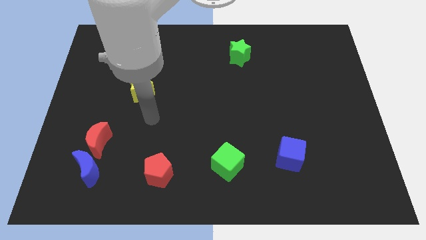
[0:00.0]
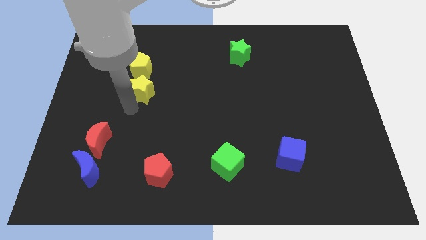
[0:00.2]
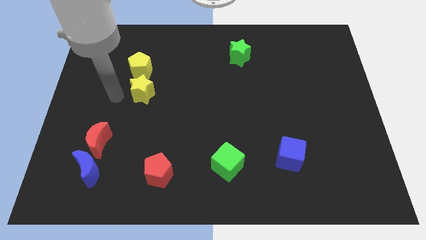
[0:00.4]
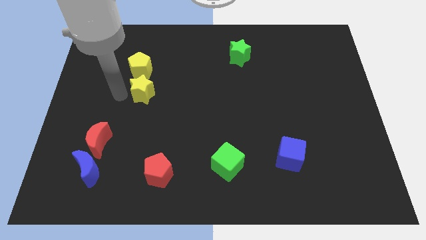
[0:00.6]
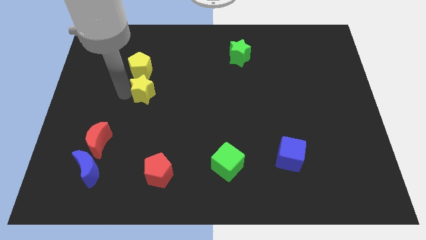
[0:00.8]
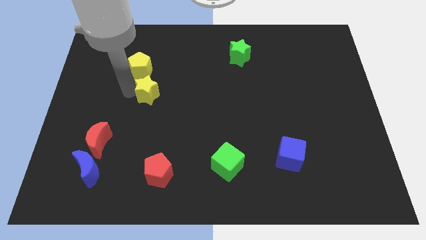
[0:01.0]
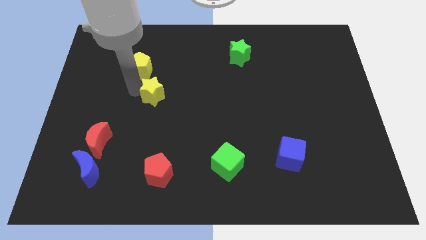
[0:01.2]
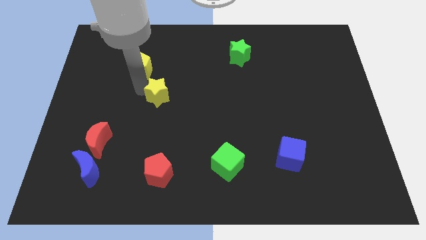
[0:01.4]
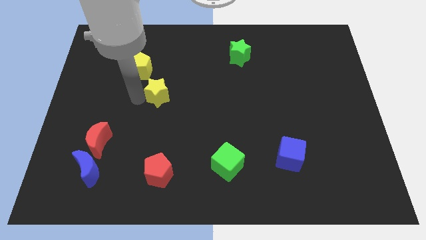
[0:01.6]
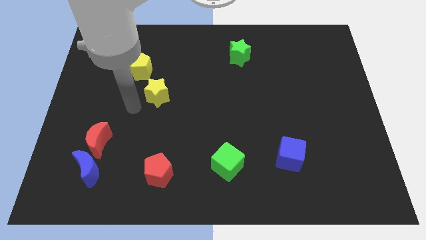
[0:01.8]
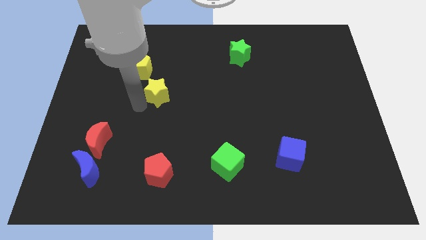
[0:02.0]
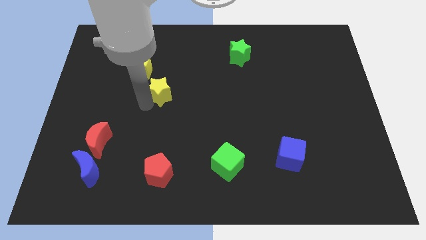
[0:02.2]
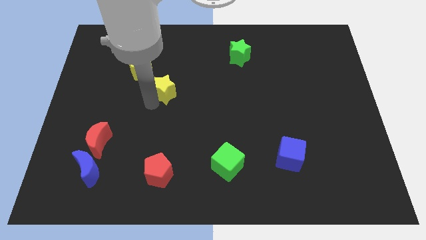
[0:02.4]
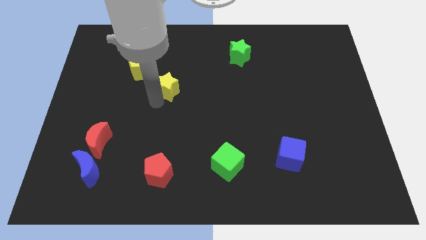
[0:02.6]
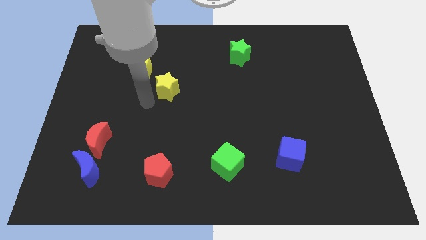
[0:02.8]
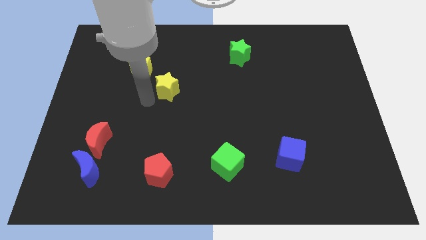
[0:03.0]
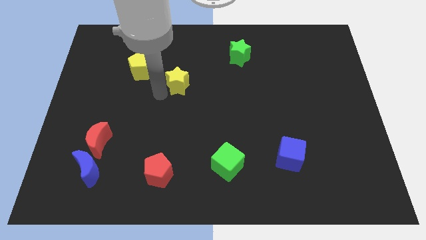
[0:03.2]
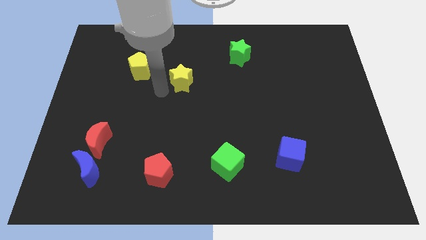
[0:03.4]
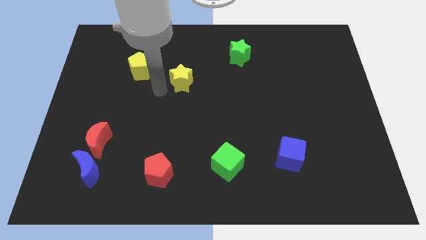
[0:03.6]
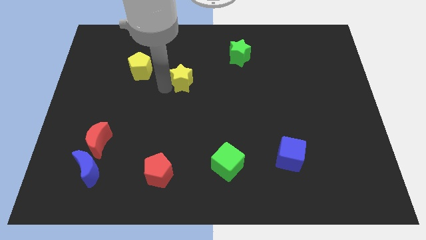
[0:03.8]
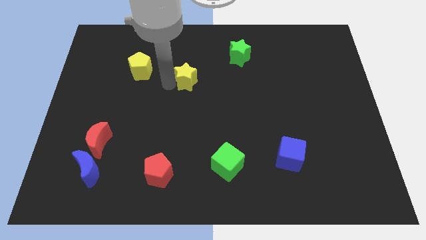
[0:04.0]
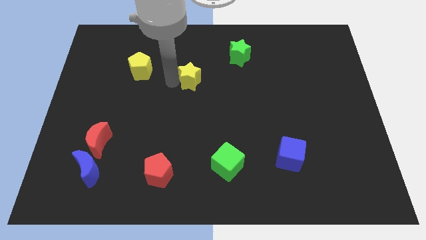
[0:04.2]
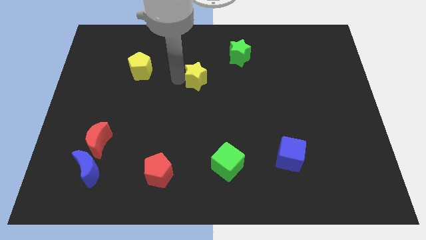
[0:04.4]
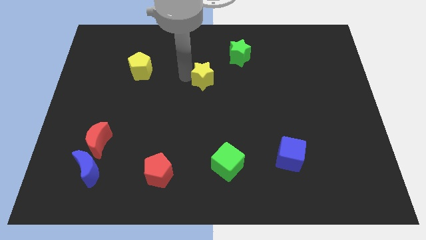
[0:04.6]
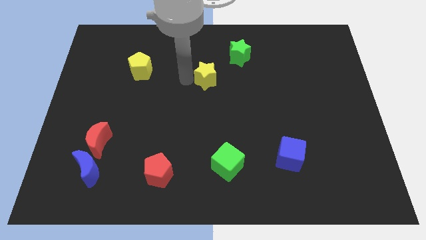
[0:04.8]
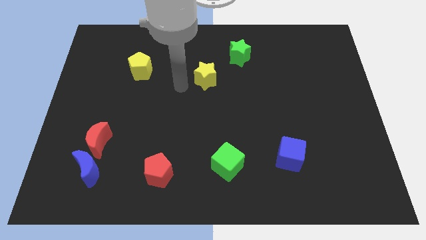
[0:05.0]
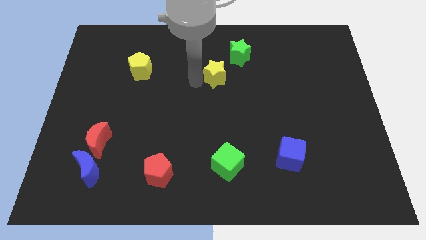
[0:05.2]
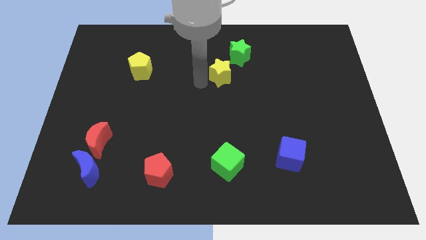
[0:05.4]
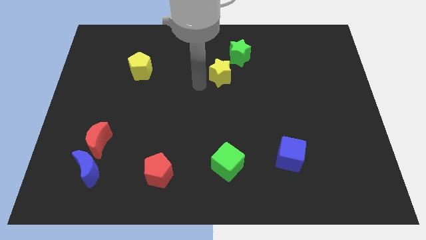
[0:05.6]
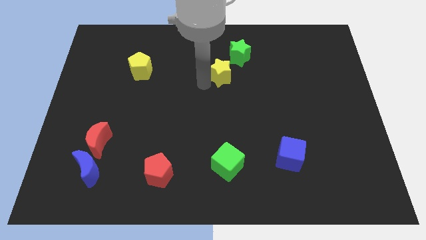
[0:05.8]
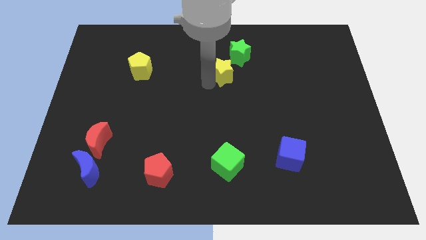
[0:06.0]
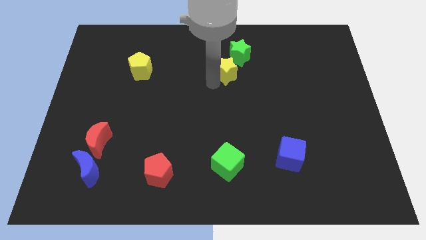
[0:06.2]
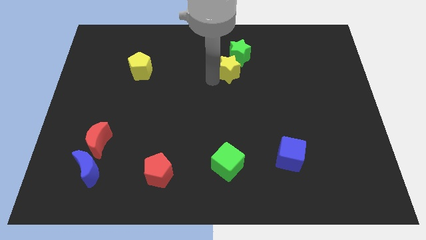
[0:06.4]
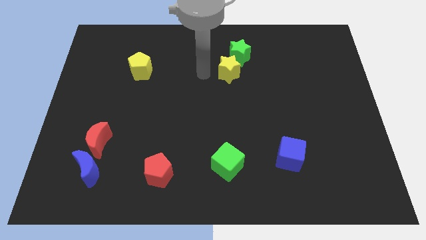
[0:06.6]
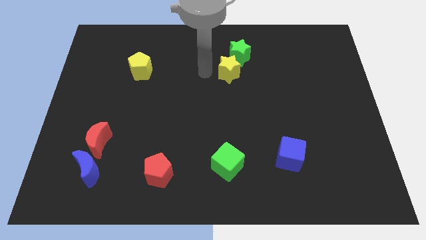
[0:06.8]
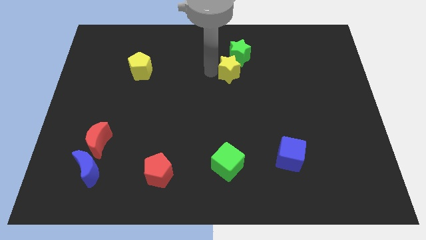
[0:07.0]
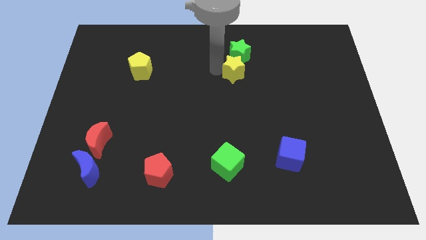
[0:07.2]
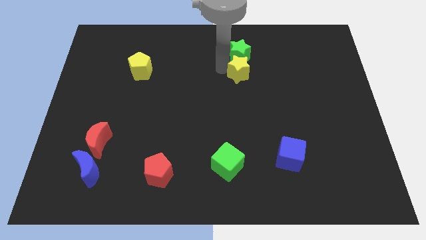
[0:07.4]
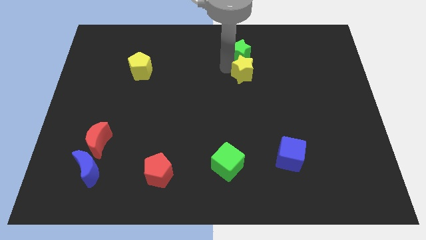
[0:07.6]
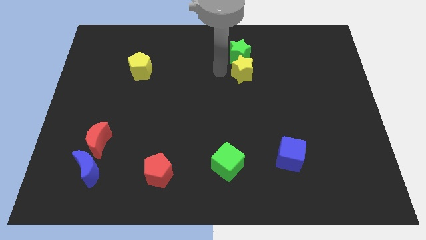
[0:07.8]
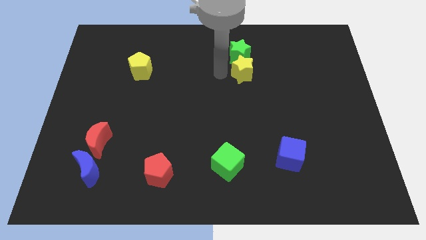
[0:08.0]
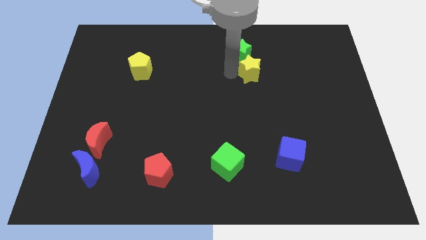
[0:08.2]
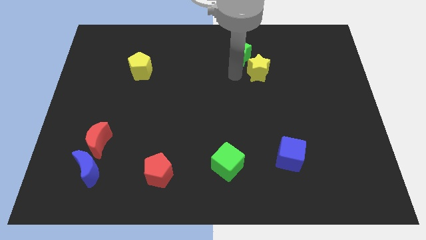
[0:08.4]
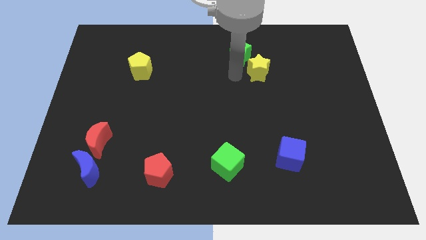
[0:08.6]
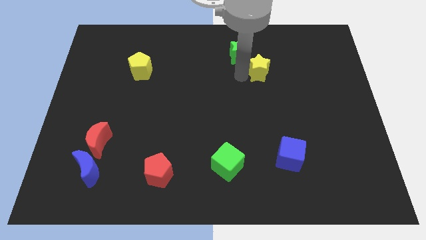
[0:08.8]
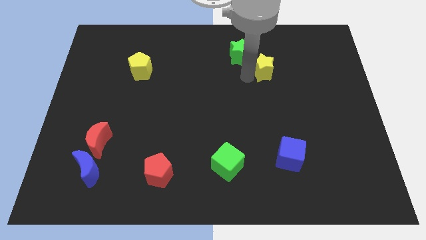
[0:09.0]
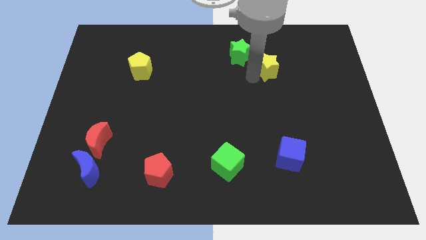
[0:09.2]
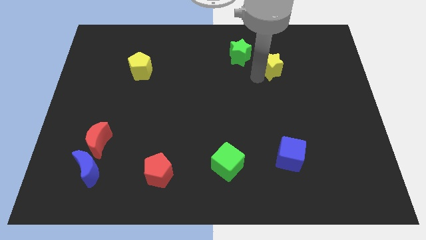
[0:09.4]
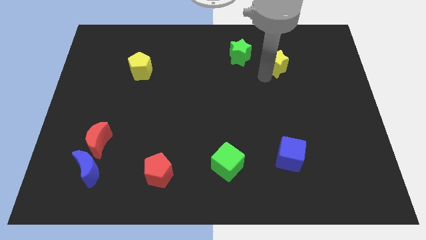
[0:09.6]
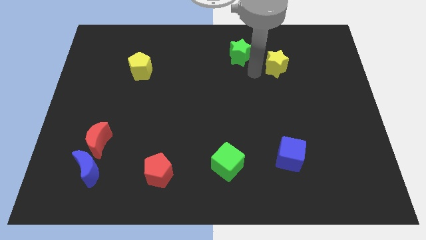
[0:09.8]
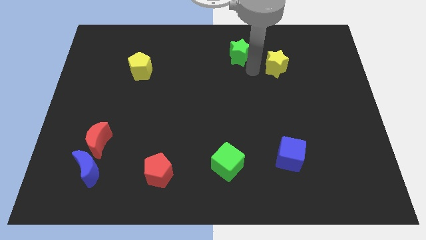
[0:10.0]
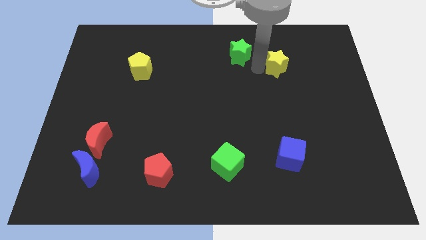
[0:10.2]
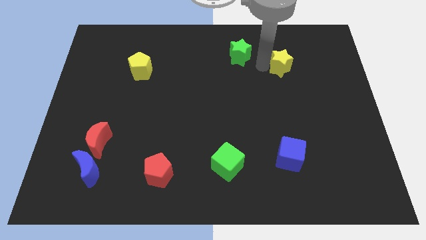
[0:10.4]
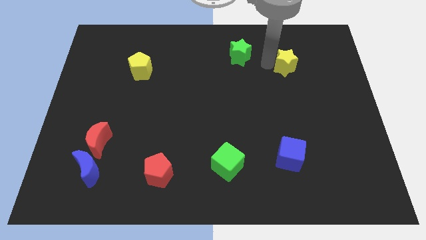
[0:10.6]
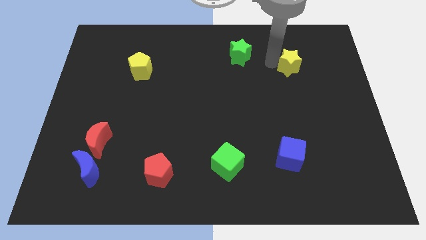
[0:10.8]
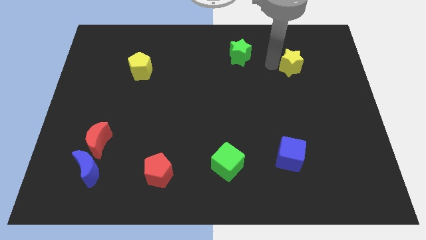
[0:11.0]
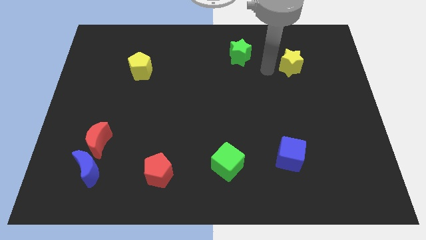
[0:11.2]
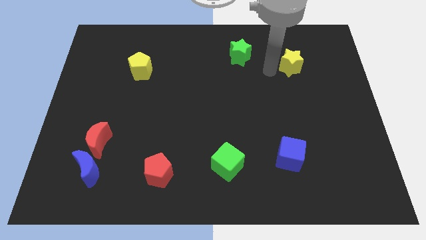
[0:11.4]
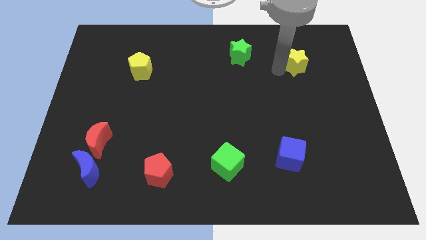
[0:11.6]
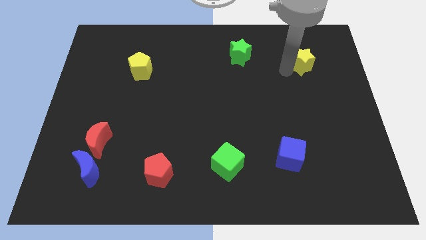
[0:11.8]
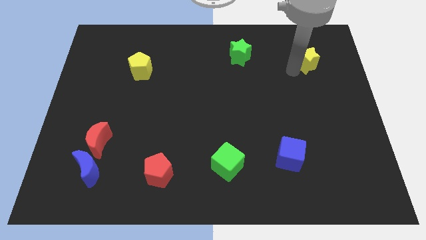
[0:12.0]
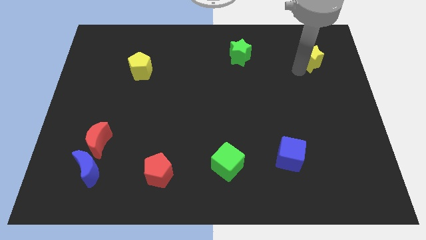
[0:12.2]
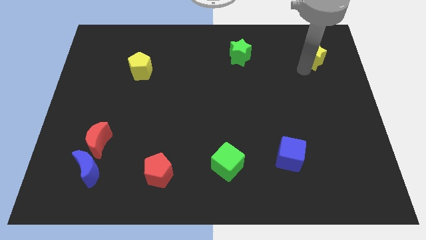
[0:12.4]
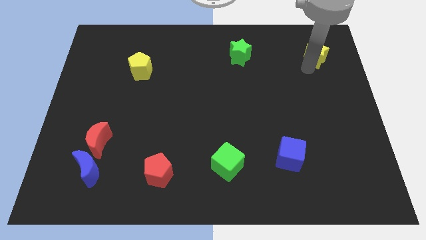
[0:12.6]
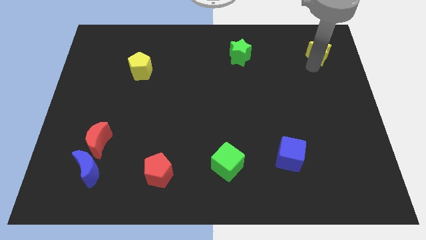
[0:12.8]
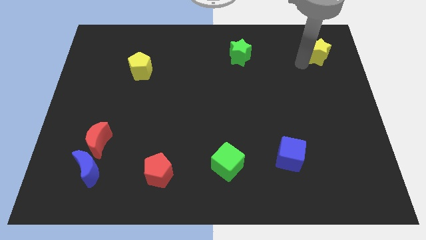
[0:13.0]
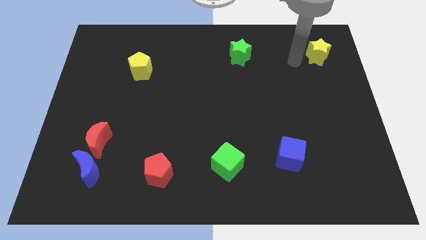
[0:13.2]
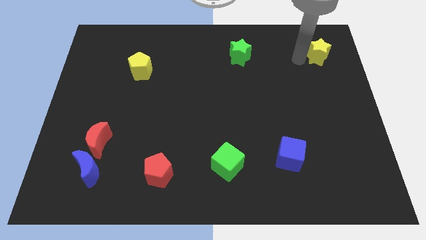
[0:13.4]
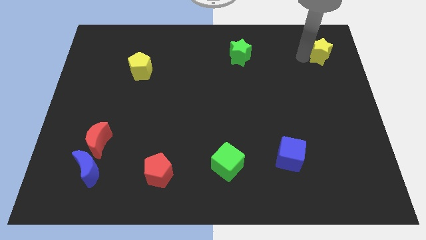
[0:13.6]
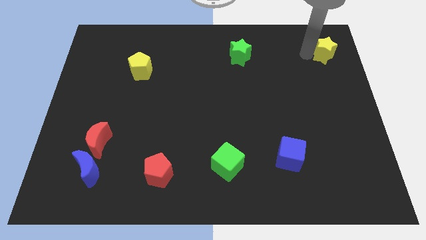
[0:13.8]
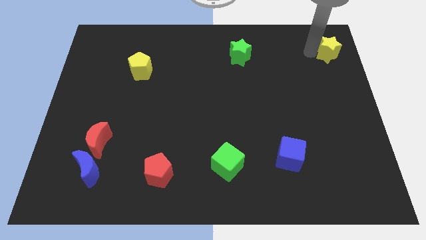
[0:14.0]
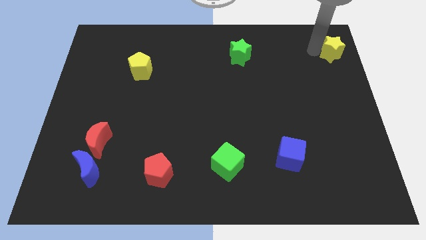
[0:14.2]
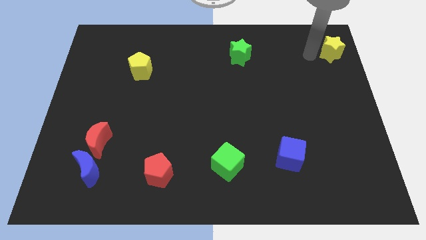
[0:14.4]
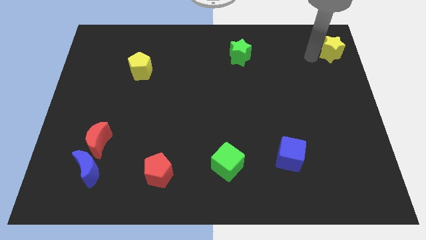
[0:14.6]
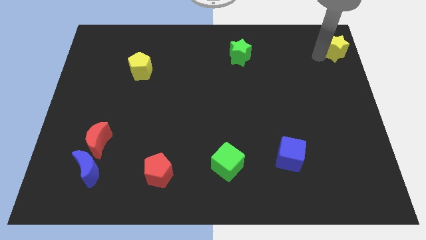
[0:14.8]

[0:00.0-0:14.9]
move the yellow star to the top right
